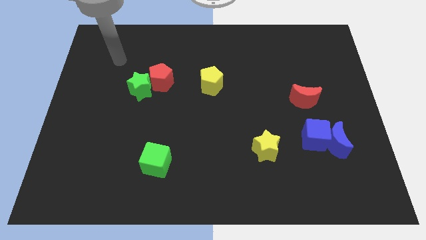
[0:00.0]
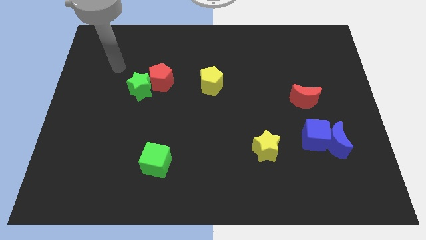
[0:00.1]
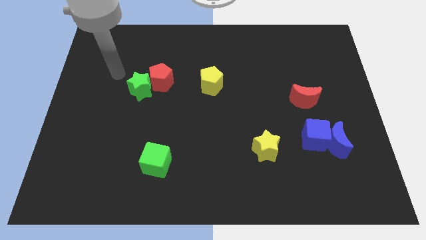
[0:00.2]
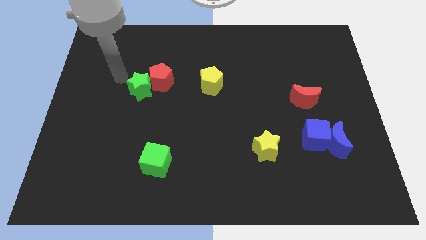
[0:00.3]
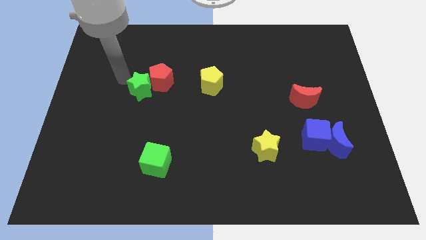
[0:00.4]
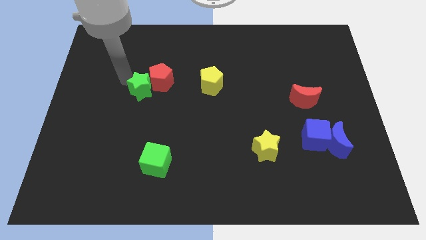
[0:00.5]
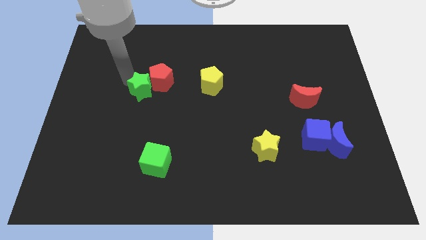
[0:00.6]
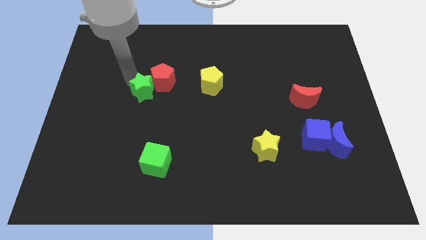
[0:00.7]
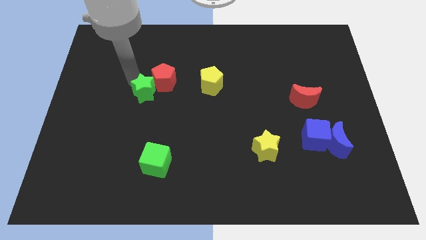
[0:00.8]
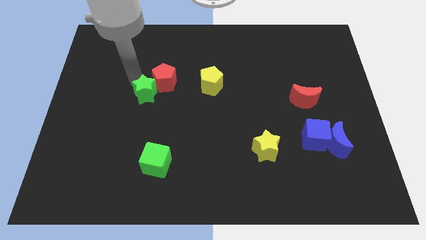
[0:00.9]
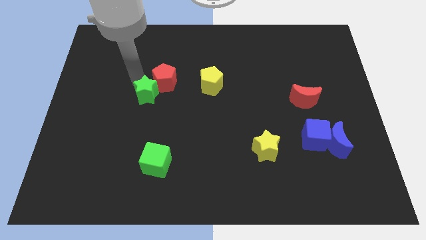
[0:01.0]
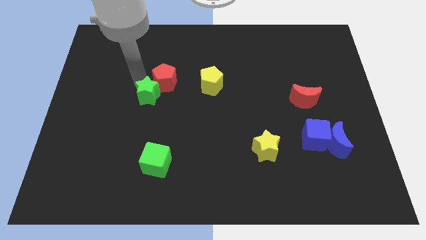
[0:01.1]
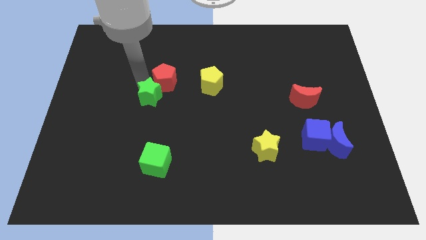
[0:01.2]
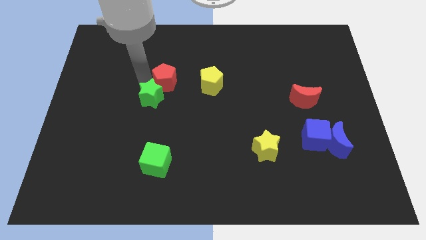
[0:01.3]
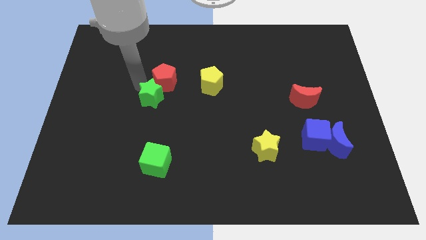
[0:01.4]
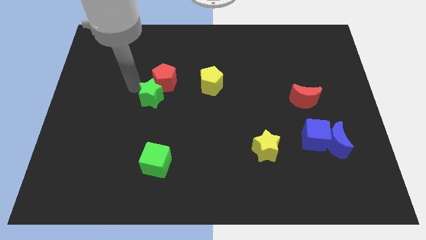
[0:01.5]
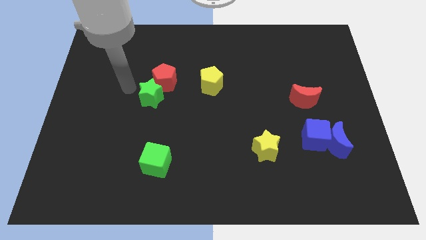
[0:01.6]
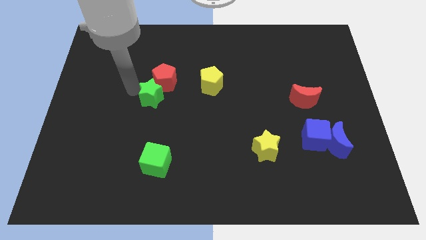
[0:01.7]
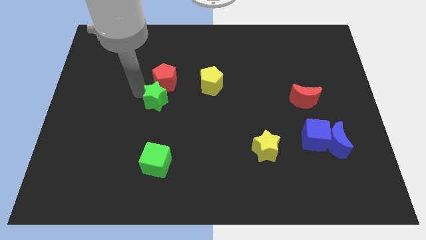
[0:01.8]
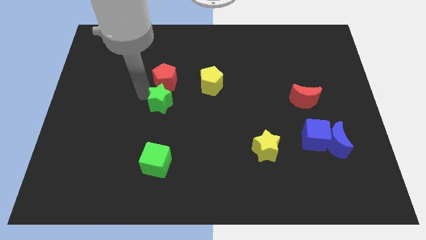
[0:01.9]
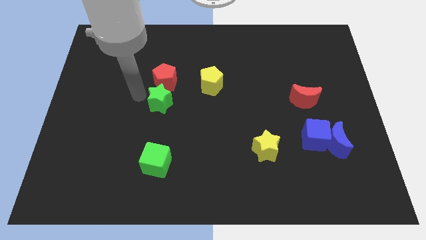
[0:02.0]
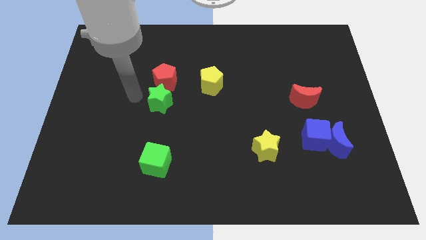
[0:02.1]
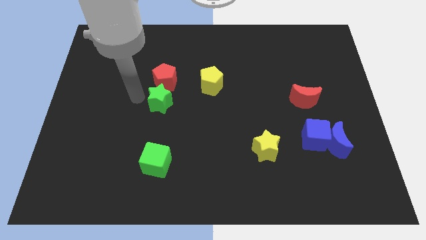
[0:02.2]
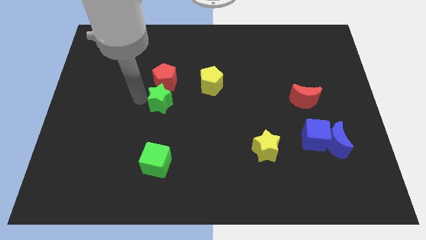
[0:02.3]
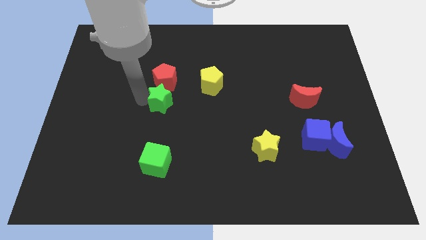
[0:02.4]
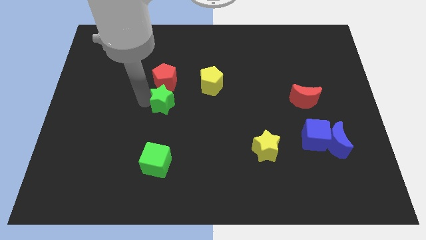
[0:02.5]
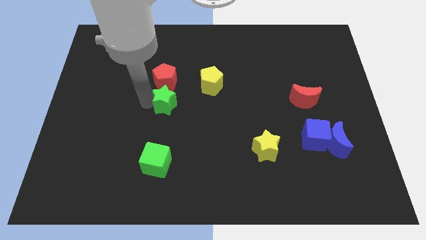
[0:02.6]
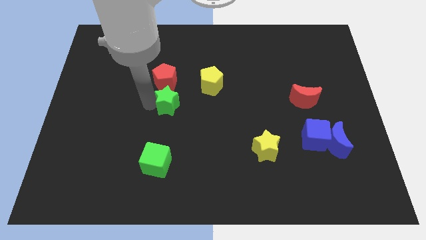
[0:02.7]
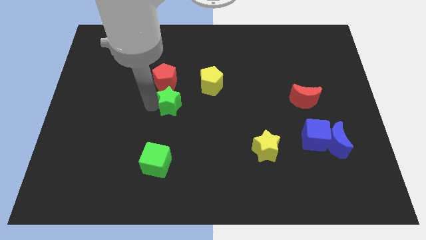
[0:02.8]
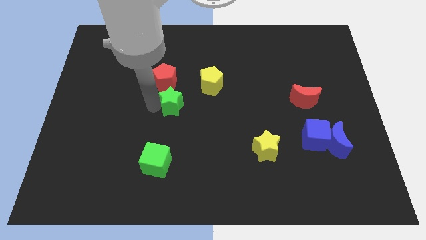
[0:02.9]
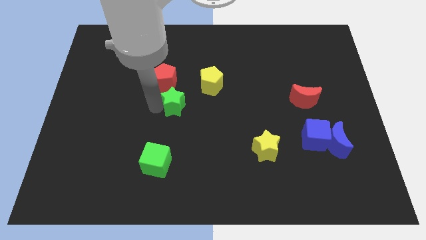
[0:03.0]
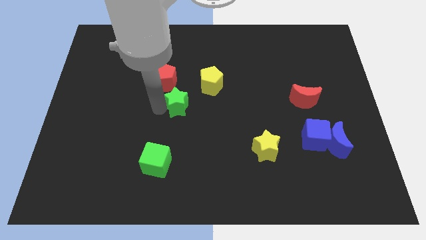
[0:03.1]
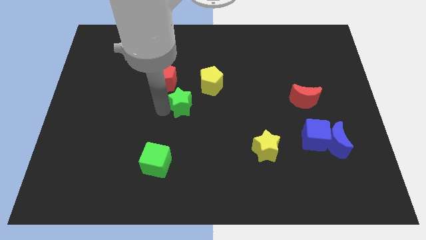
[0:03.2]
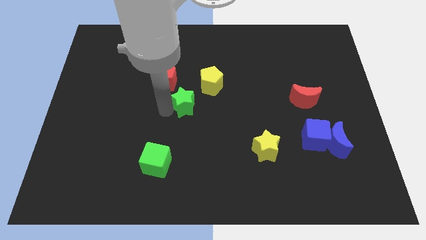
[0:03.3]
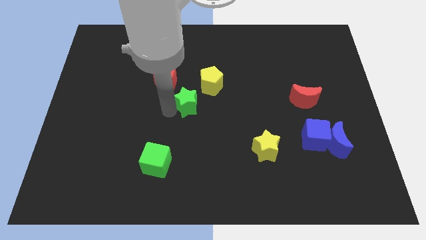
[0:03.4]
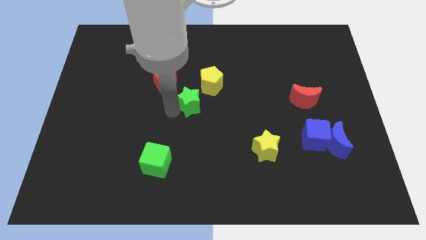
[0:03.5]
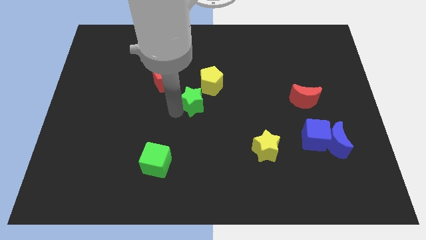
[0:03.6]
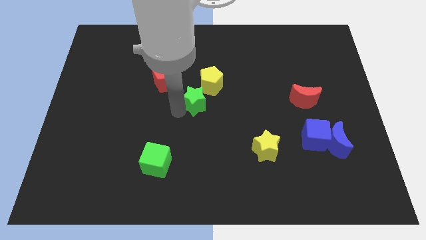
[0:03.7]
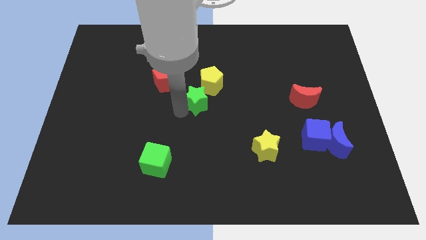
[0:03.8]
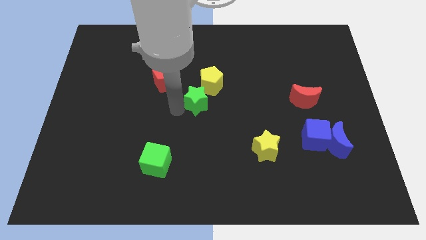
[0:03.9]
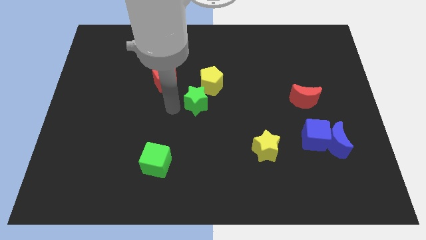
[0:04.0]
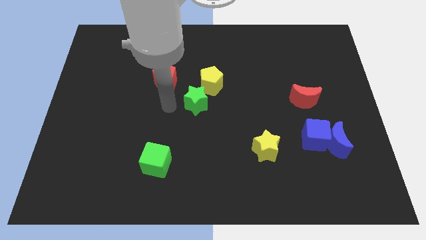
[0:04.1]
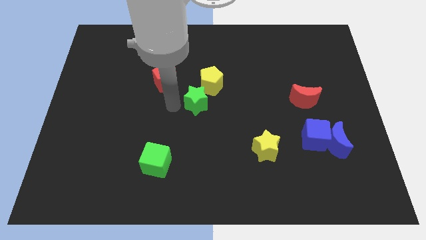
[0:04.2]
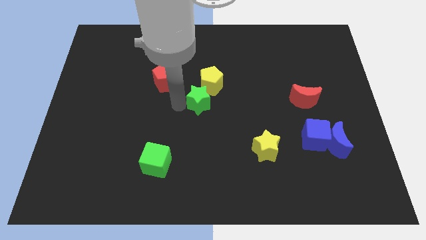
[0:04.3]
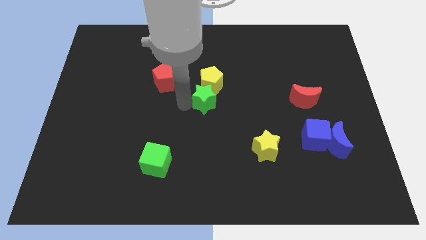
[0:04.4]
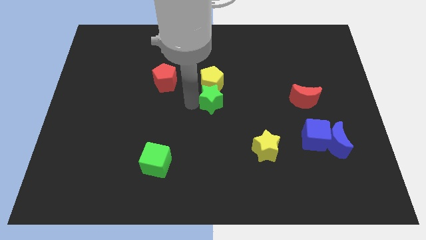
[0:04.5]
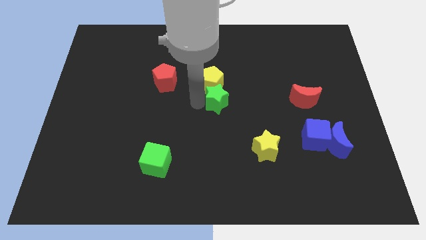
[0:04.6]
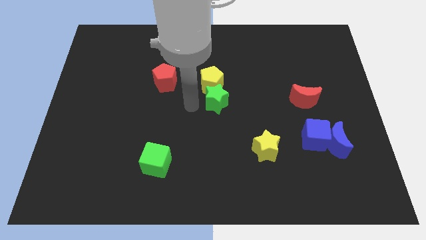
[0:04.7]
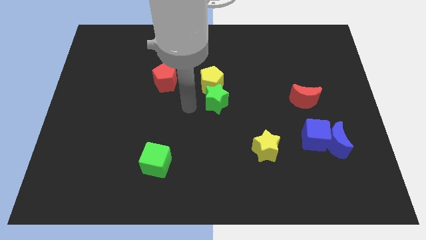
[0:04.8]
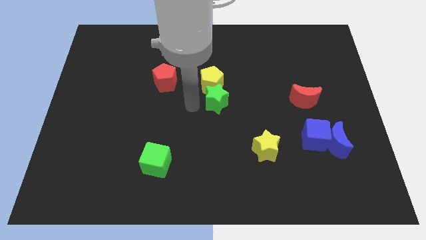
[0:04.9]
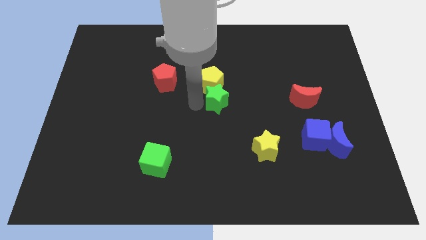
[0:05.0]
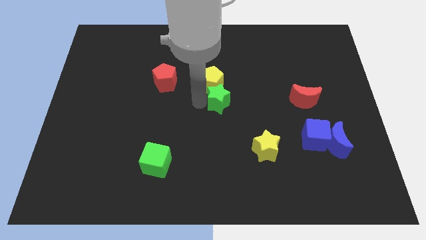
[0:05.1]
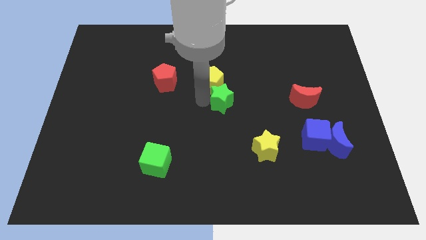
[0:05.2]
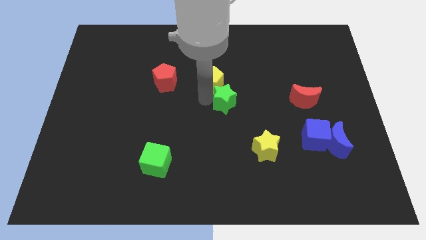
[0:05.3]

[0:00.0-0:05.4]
move the green star to the right

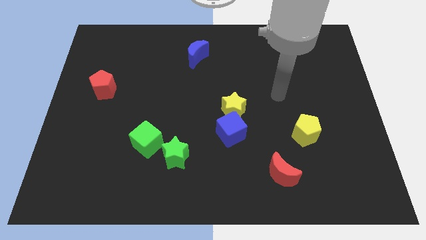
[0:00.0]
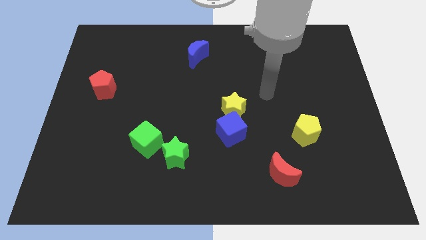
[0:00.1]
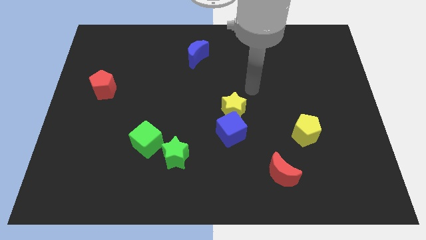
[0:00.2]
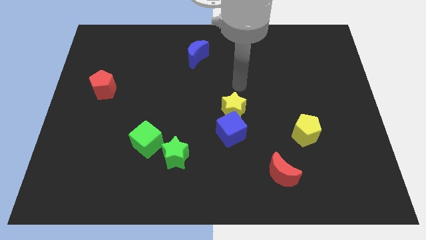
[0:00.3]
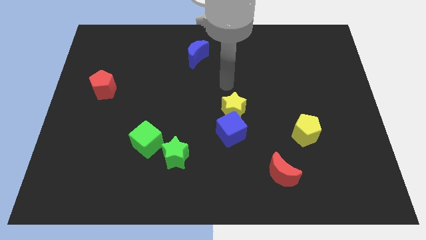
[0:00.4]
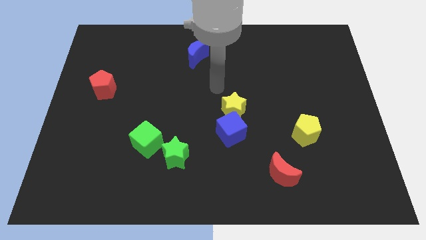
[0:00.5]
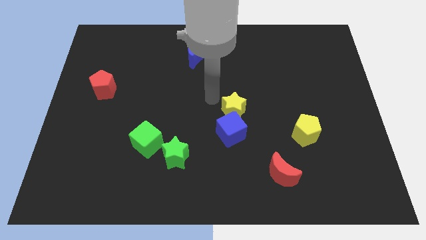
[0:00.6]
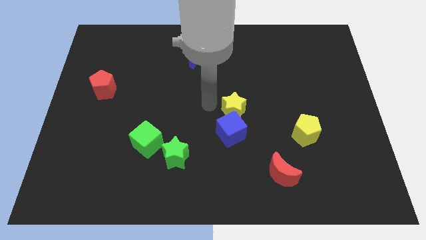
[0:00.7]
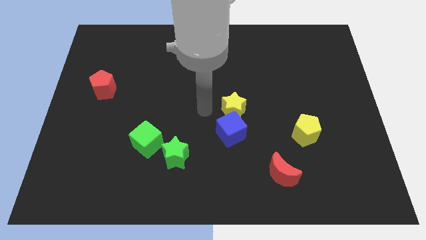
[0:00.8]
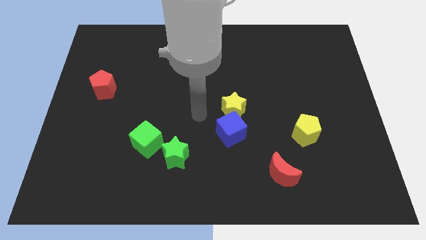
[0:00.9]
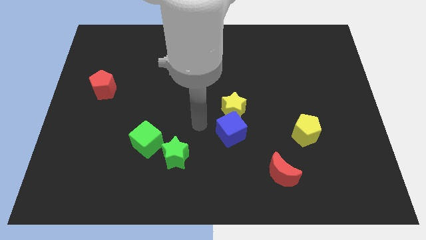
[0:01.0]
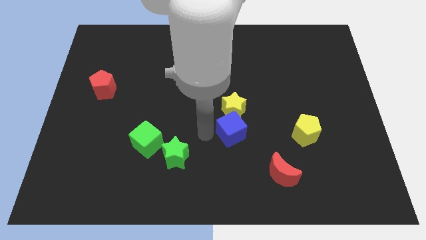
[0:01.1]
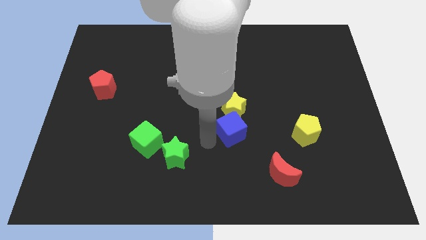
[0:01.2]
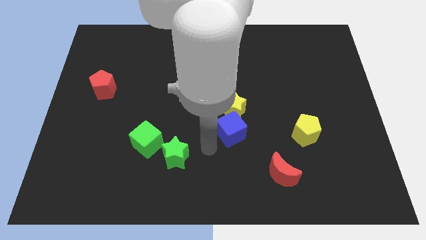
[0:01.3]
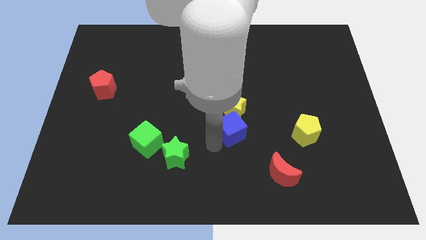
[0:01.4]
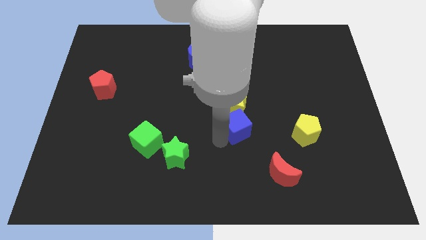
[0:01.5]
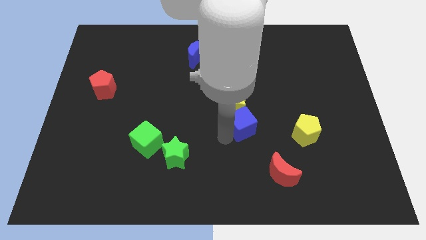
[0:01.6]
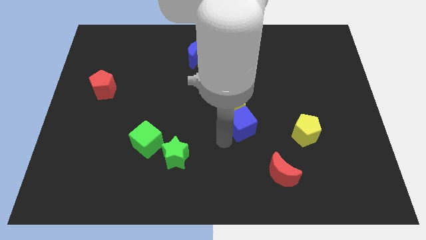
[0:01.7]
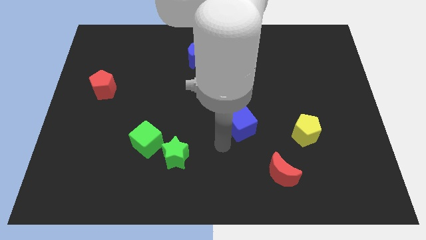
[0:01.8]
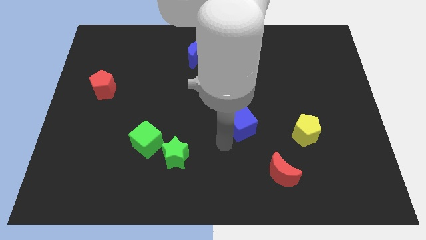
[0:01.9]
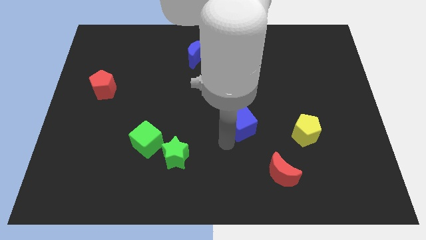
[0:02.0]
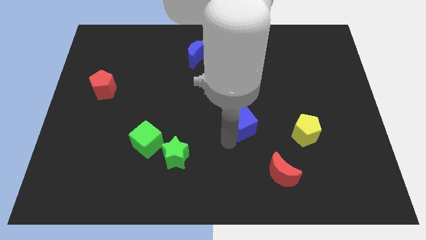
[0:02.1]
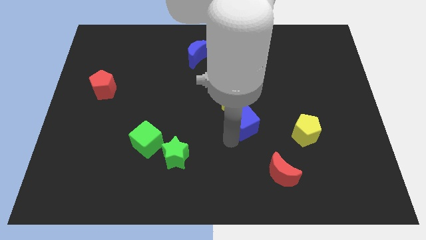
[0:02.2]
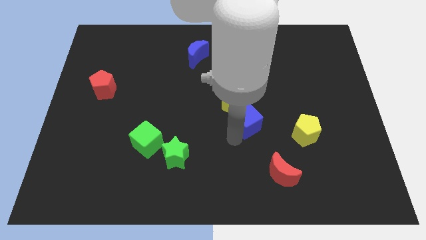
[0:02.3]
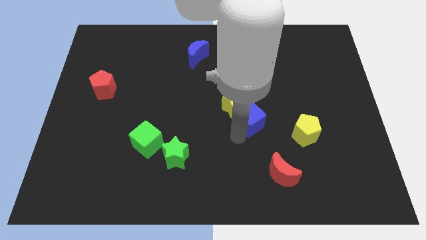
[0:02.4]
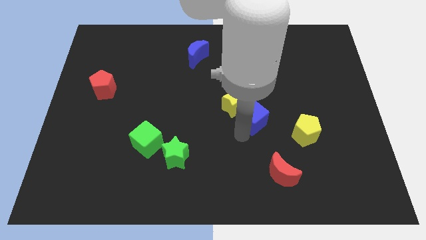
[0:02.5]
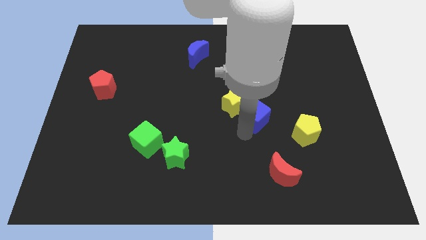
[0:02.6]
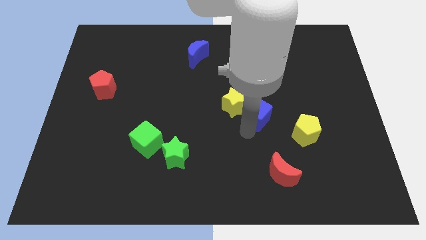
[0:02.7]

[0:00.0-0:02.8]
slightly move the blue cube upwards and right diagonally
